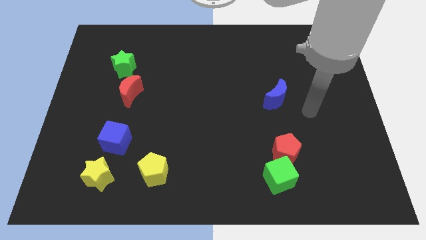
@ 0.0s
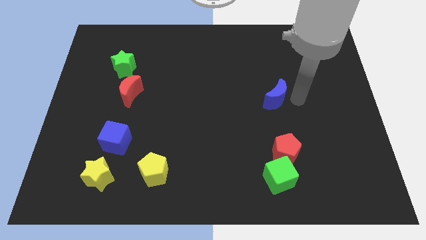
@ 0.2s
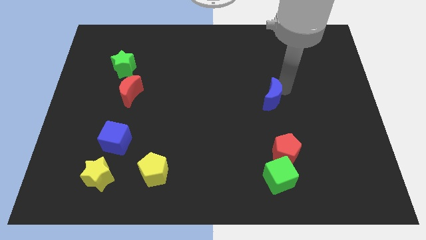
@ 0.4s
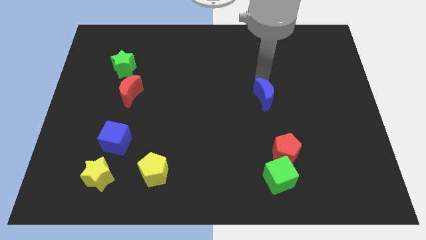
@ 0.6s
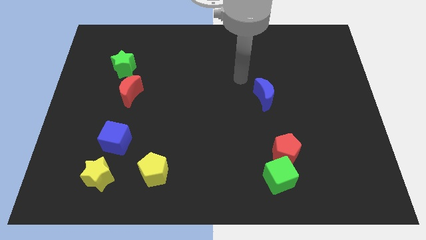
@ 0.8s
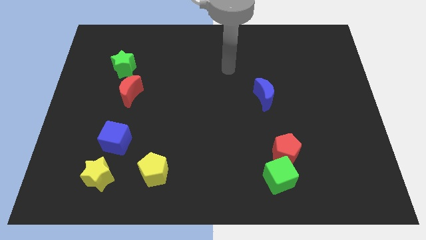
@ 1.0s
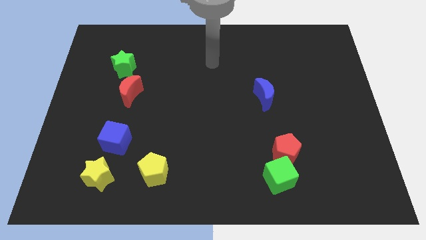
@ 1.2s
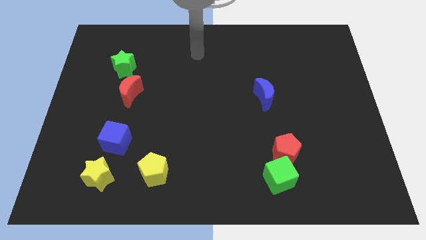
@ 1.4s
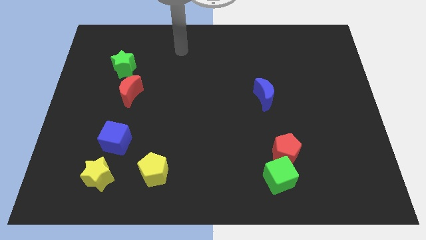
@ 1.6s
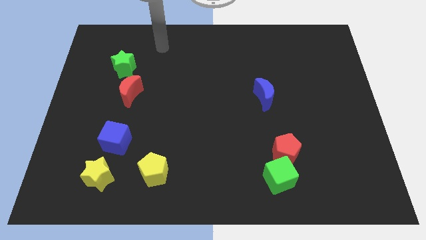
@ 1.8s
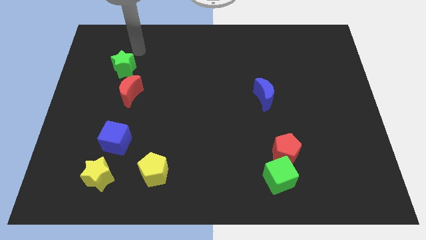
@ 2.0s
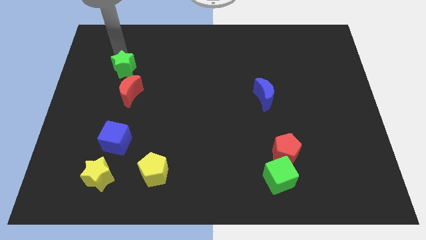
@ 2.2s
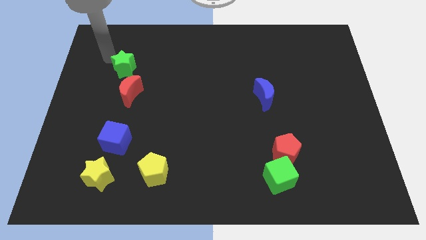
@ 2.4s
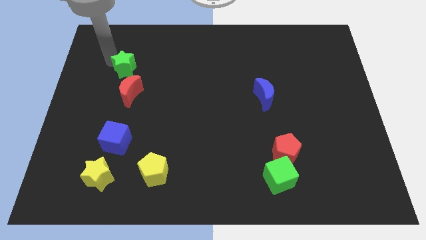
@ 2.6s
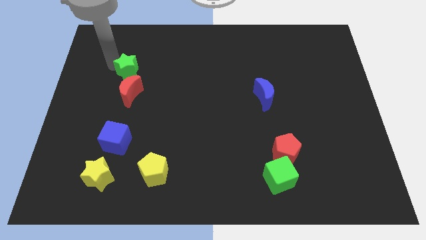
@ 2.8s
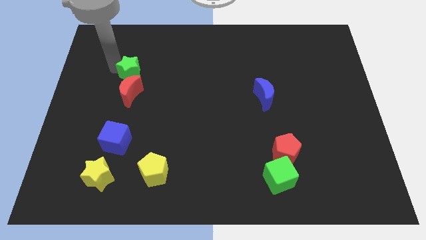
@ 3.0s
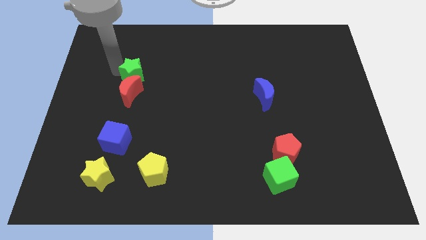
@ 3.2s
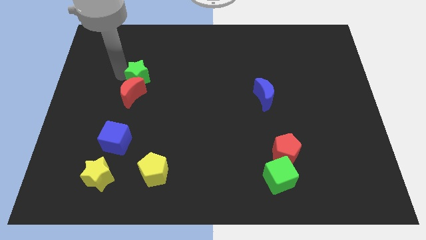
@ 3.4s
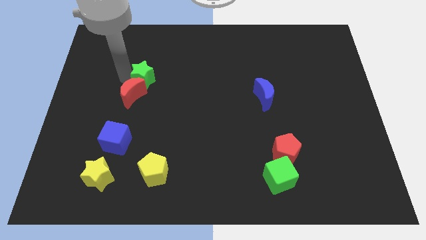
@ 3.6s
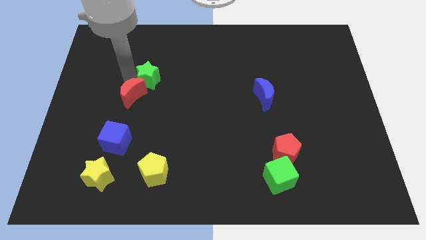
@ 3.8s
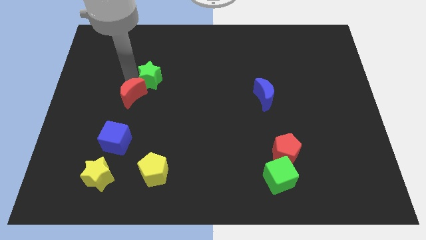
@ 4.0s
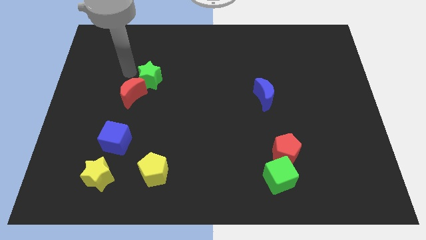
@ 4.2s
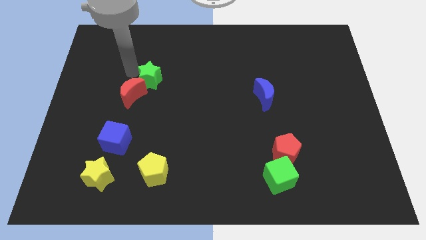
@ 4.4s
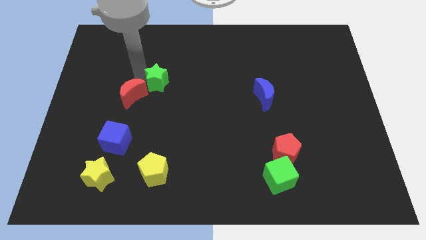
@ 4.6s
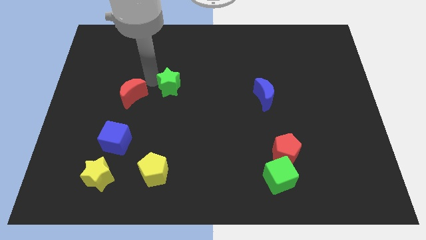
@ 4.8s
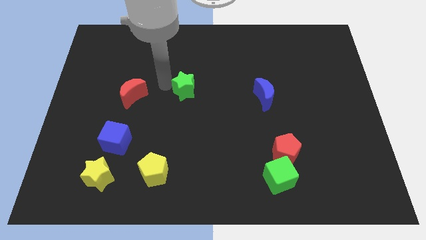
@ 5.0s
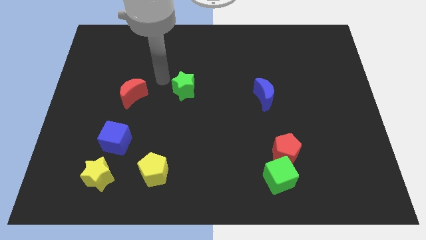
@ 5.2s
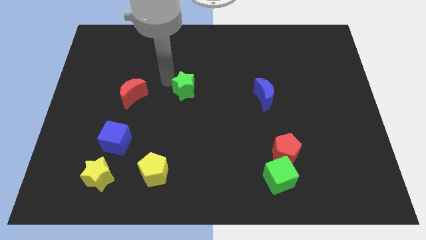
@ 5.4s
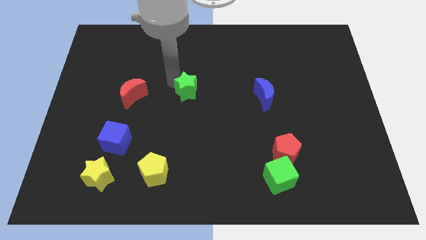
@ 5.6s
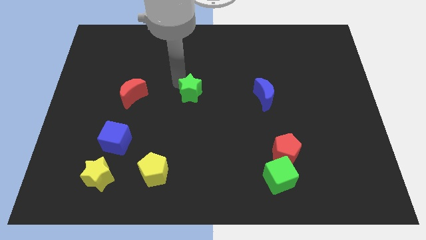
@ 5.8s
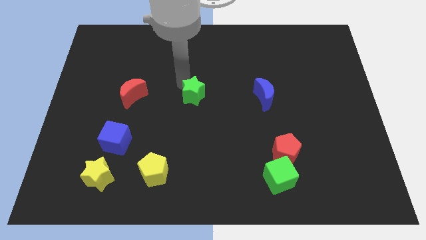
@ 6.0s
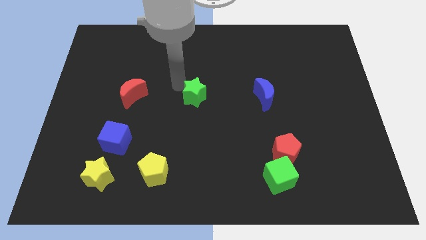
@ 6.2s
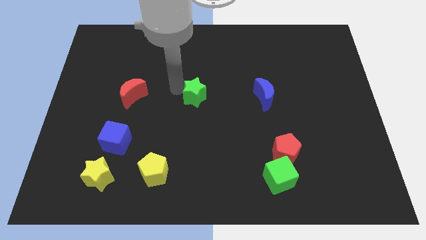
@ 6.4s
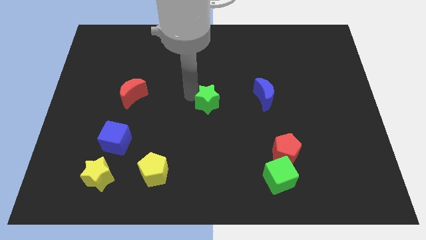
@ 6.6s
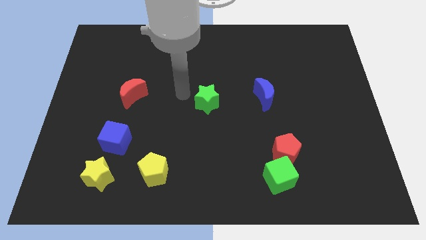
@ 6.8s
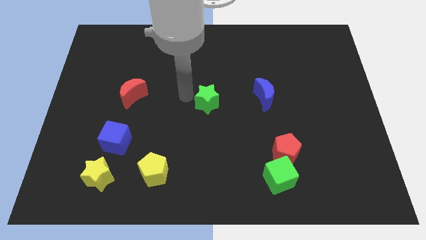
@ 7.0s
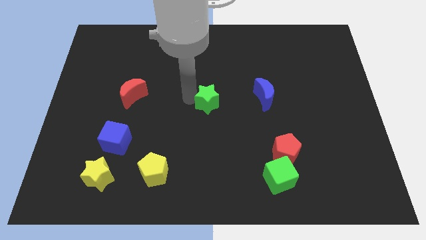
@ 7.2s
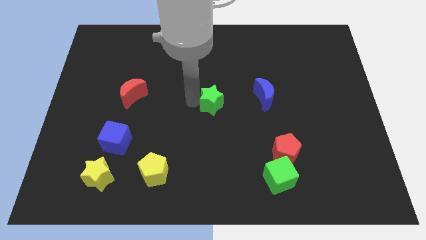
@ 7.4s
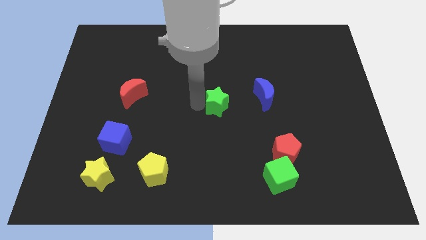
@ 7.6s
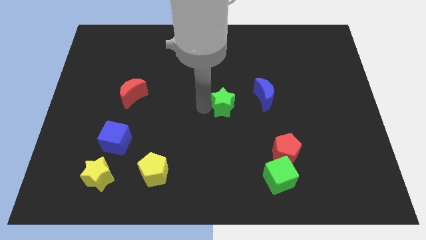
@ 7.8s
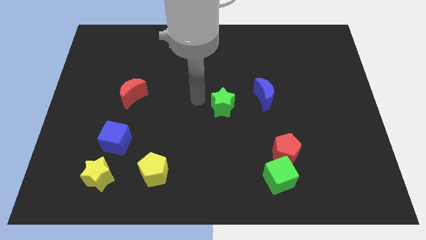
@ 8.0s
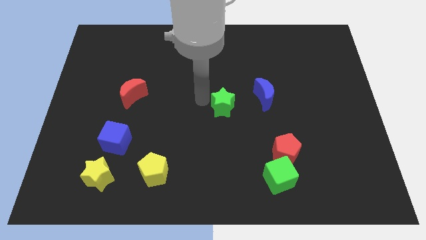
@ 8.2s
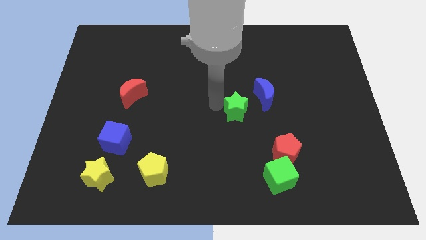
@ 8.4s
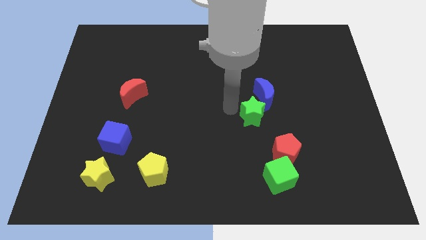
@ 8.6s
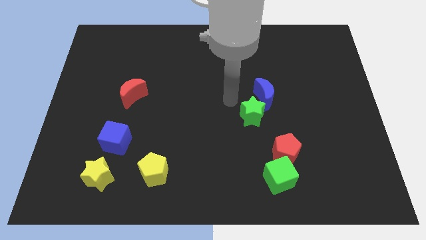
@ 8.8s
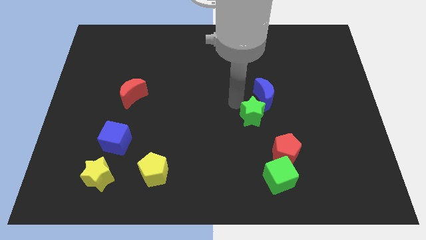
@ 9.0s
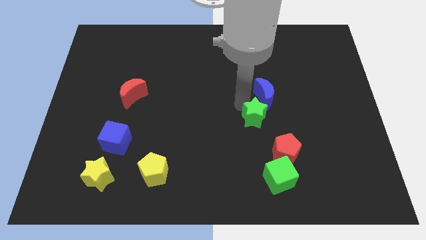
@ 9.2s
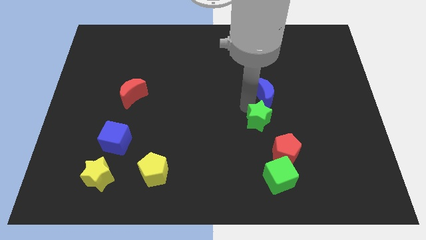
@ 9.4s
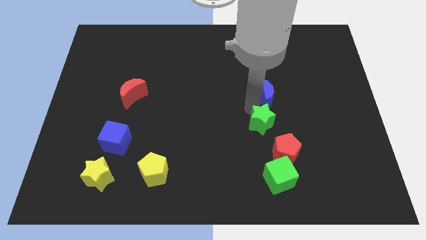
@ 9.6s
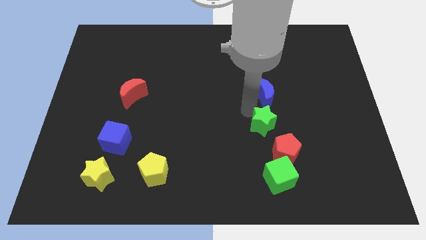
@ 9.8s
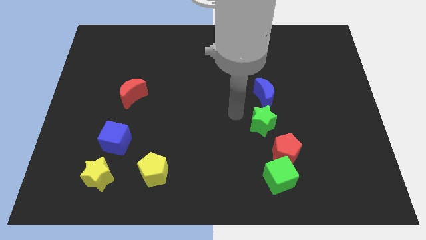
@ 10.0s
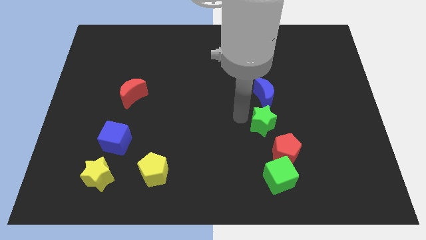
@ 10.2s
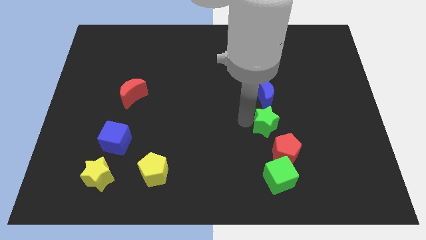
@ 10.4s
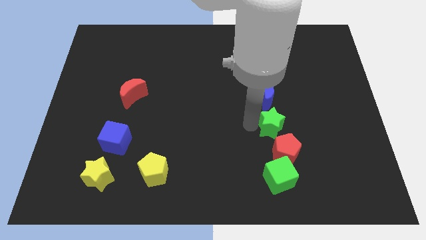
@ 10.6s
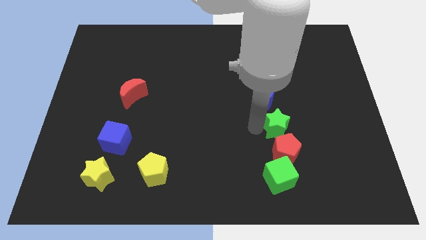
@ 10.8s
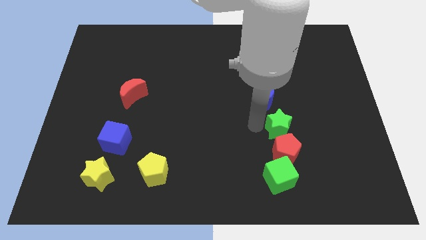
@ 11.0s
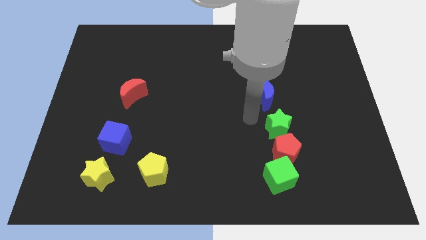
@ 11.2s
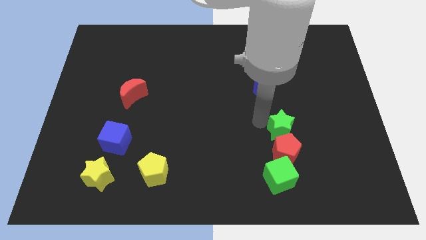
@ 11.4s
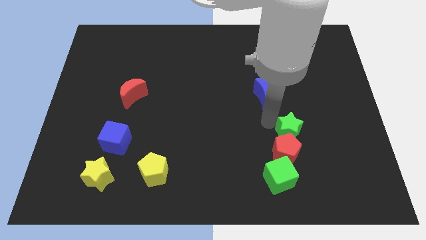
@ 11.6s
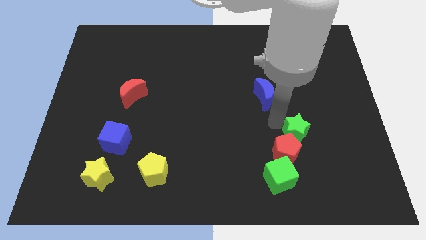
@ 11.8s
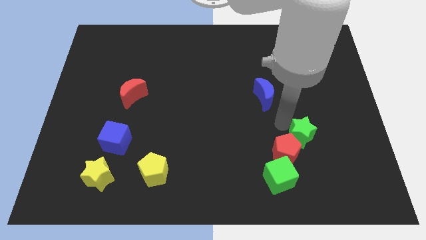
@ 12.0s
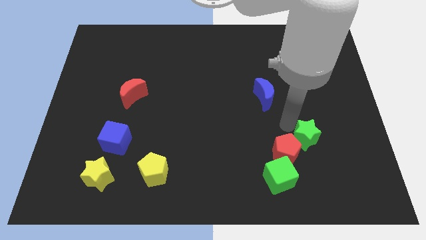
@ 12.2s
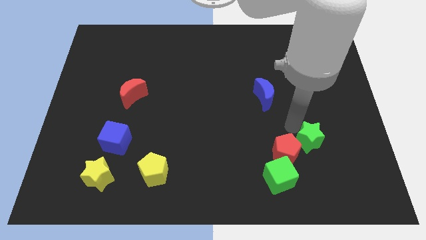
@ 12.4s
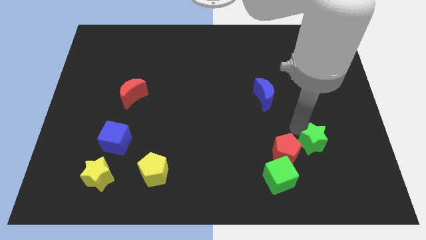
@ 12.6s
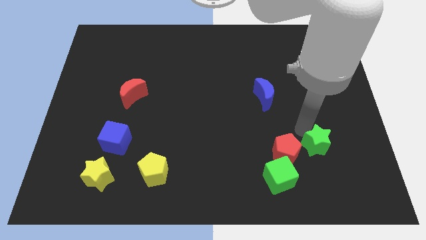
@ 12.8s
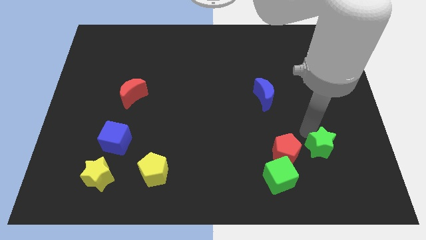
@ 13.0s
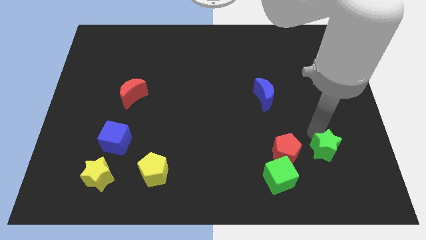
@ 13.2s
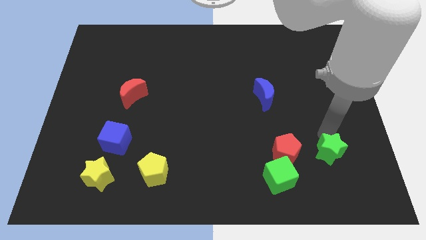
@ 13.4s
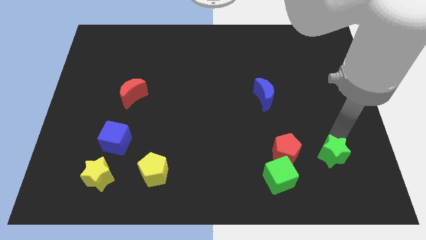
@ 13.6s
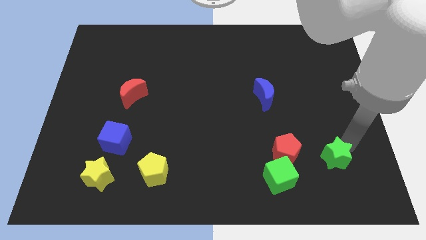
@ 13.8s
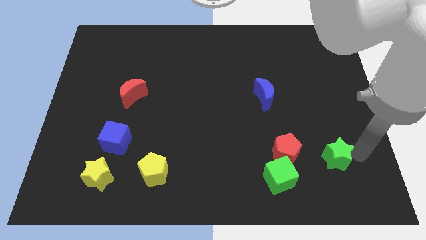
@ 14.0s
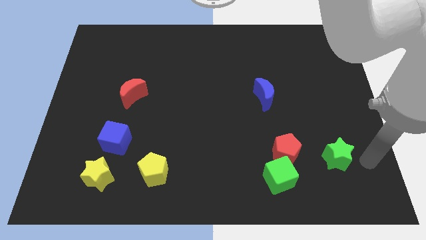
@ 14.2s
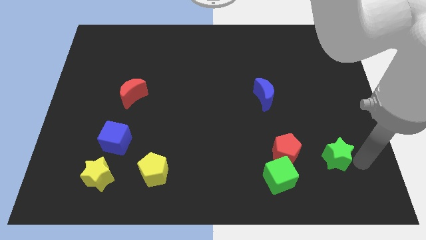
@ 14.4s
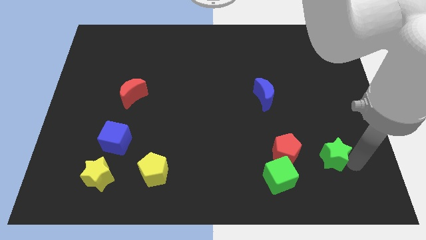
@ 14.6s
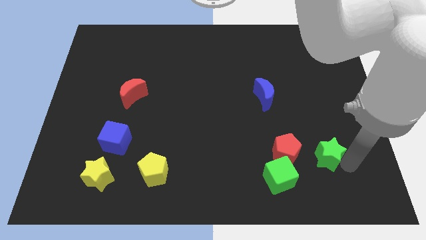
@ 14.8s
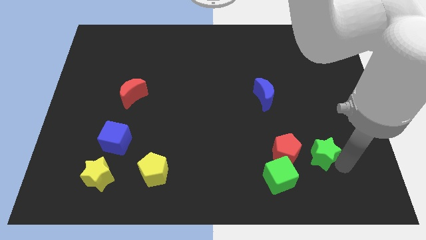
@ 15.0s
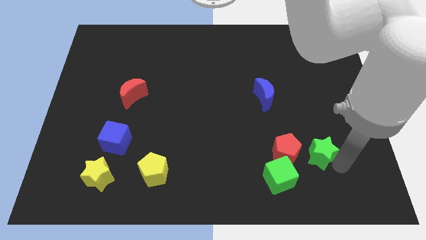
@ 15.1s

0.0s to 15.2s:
put the green star to the bottom right side of the red pentagon
